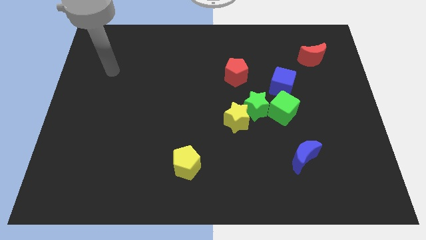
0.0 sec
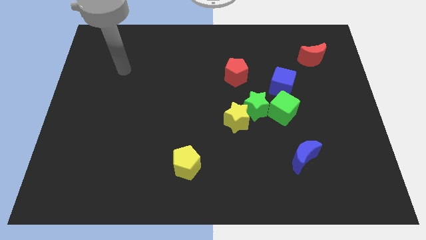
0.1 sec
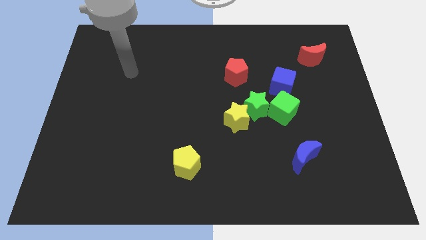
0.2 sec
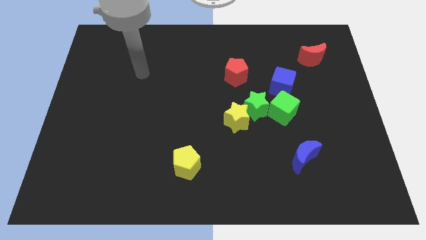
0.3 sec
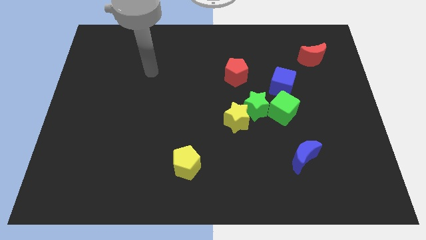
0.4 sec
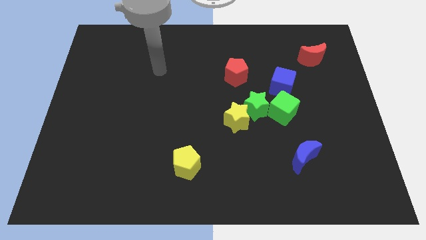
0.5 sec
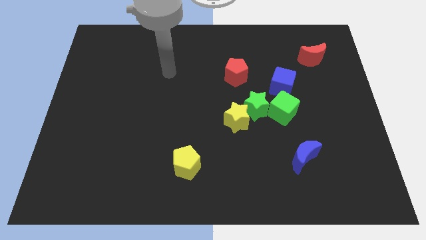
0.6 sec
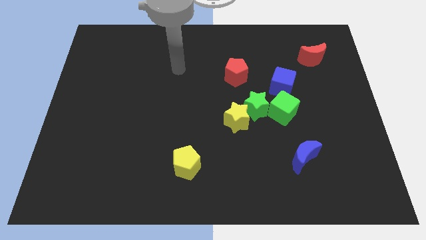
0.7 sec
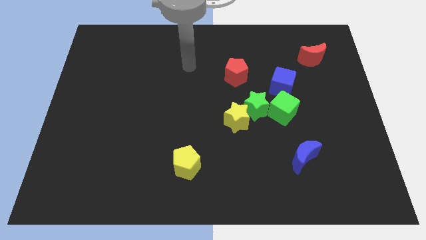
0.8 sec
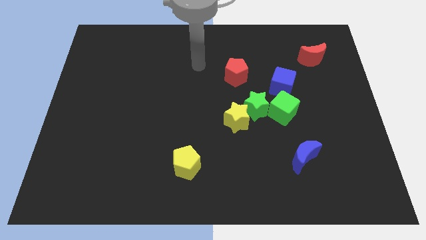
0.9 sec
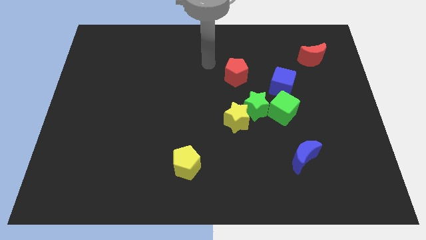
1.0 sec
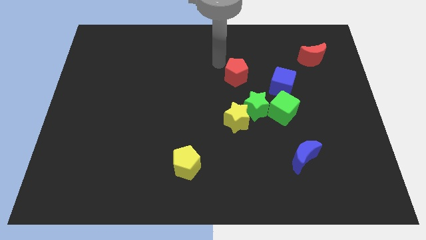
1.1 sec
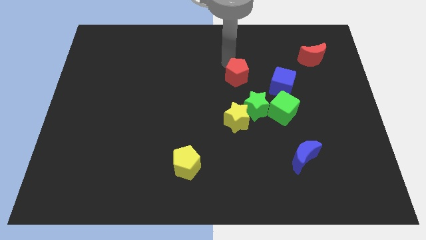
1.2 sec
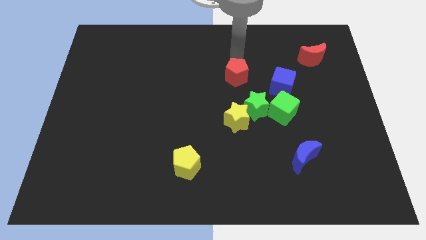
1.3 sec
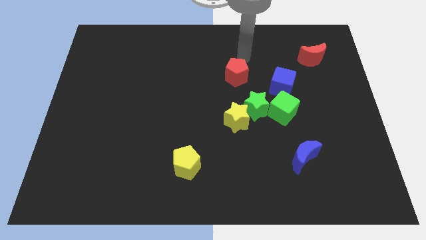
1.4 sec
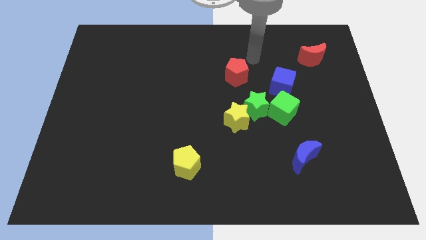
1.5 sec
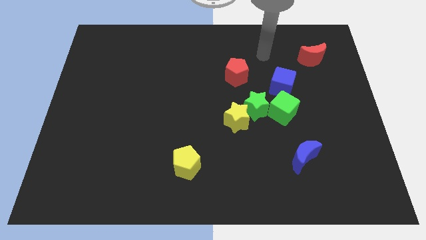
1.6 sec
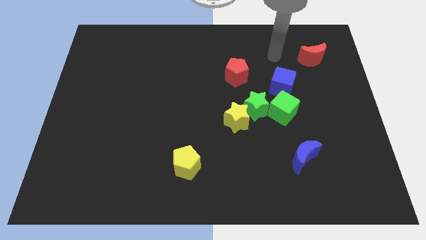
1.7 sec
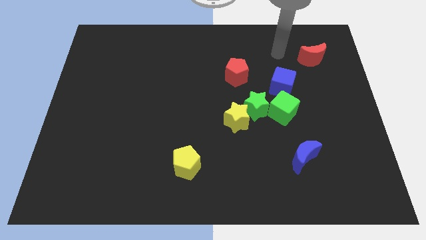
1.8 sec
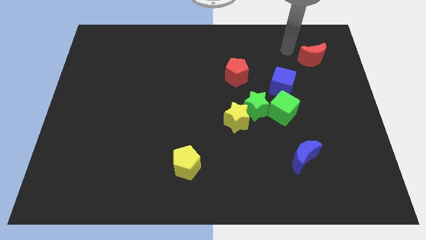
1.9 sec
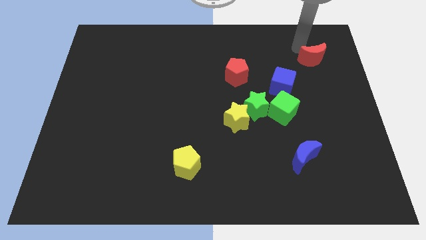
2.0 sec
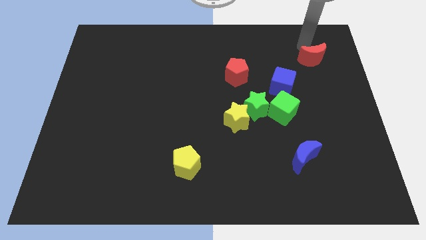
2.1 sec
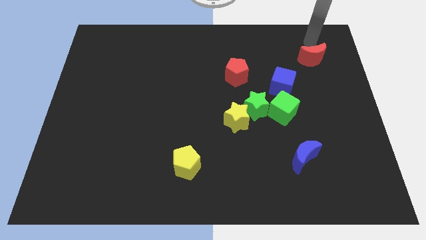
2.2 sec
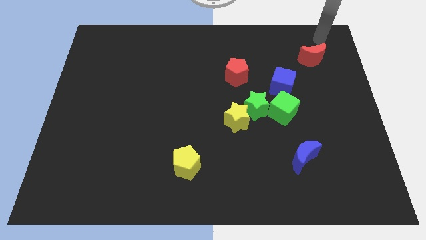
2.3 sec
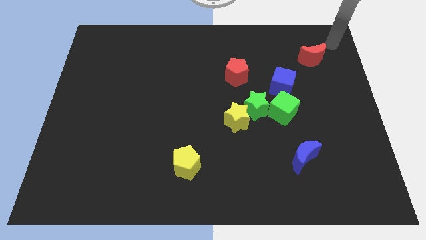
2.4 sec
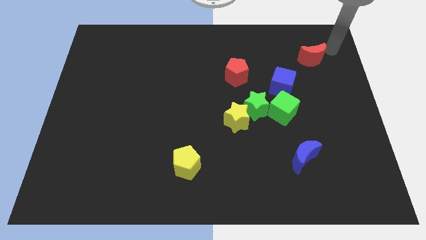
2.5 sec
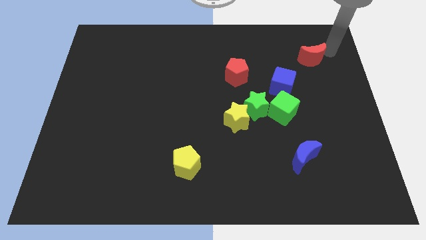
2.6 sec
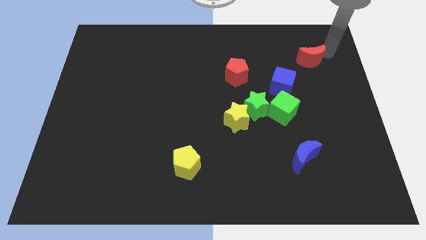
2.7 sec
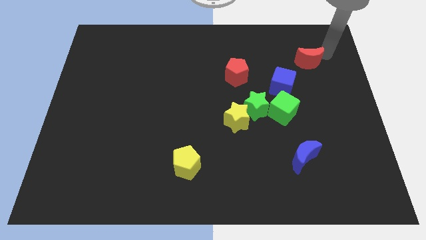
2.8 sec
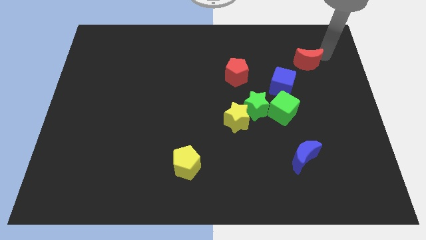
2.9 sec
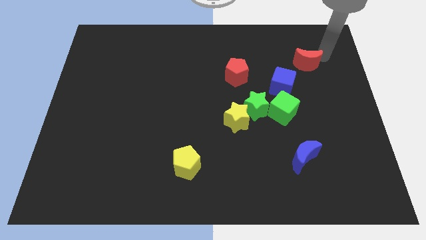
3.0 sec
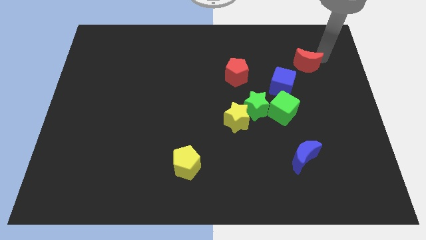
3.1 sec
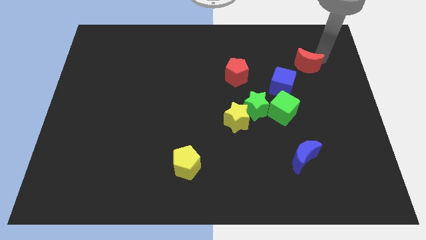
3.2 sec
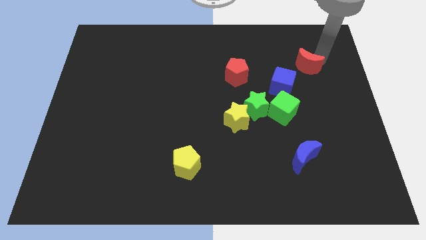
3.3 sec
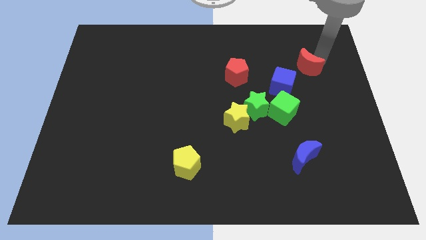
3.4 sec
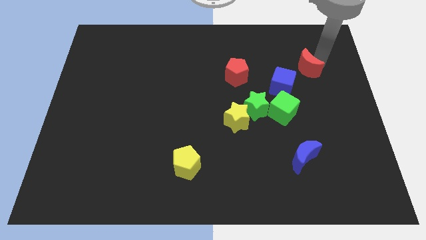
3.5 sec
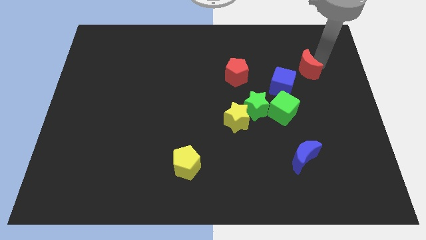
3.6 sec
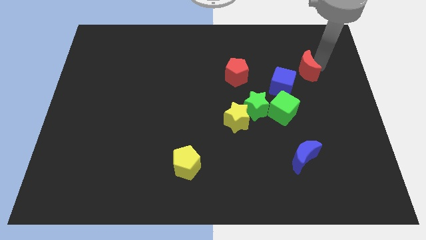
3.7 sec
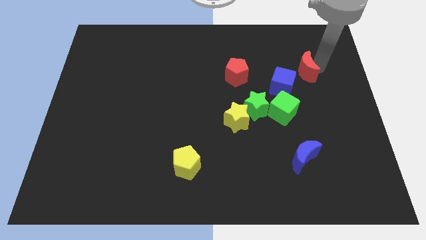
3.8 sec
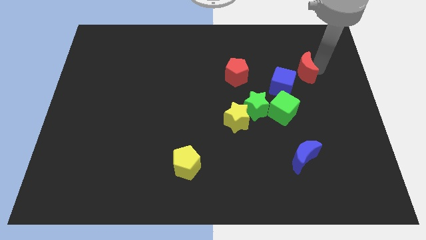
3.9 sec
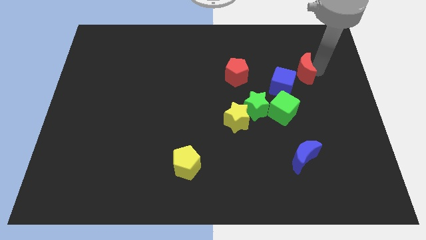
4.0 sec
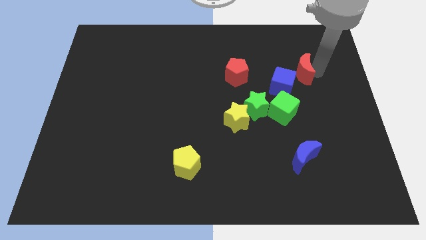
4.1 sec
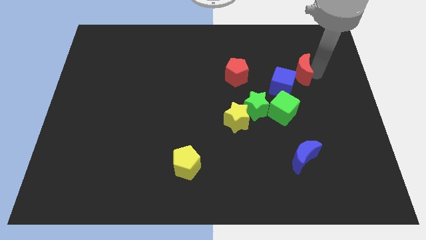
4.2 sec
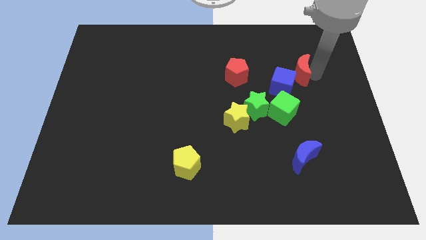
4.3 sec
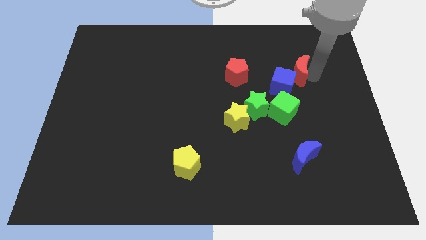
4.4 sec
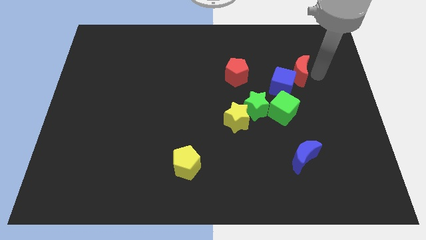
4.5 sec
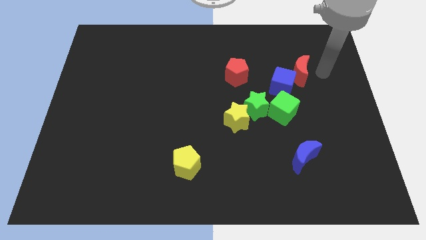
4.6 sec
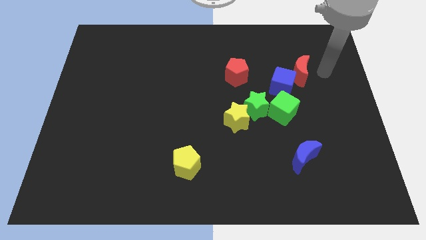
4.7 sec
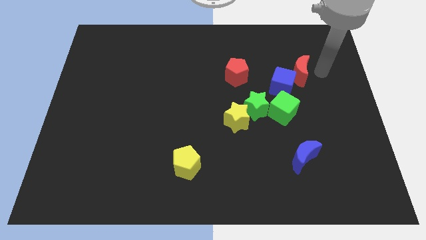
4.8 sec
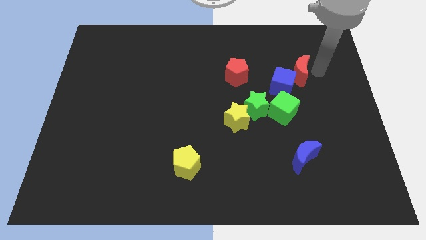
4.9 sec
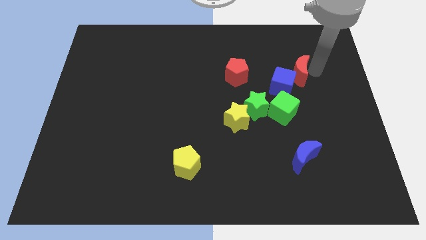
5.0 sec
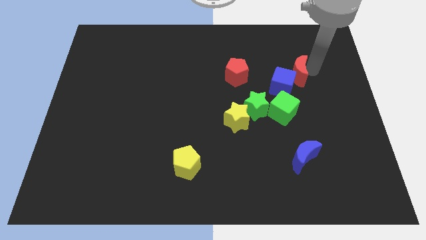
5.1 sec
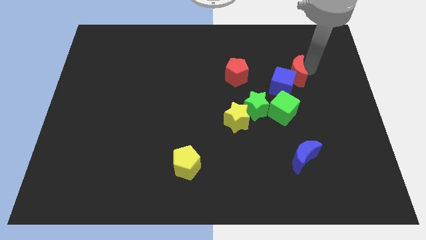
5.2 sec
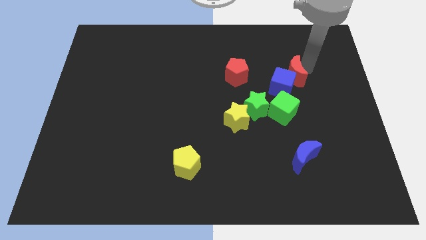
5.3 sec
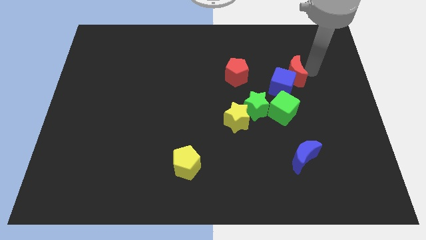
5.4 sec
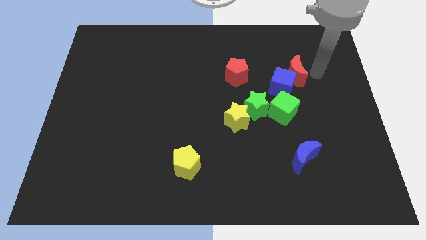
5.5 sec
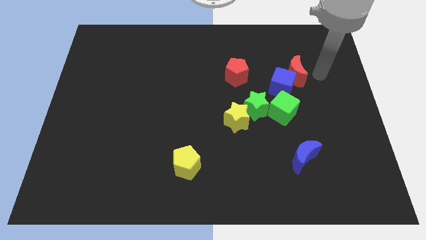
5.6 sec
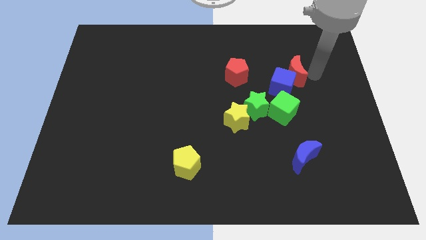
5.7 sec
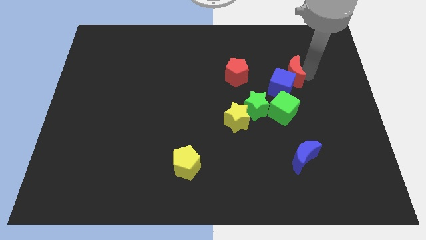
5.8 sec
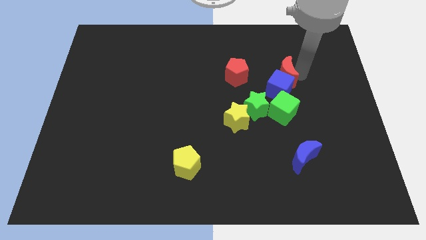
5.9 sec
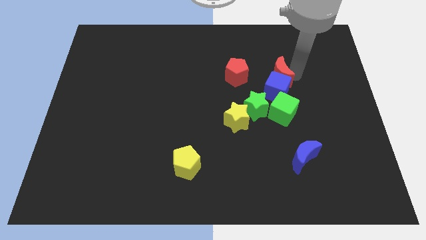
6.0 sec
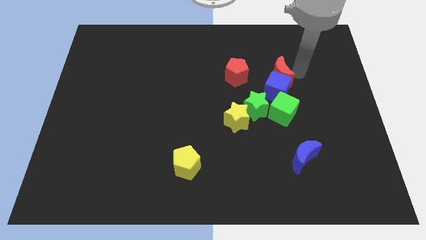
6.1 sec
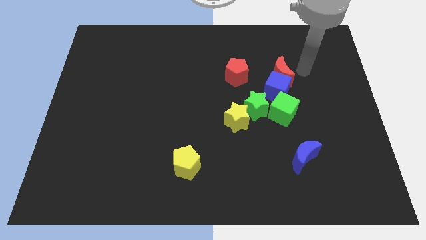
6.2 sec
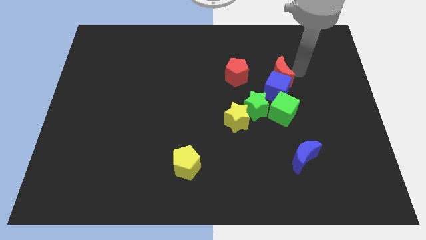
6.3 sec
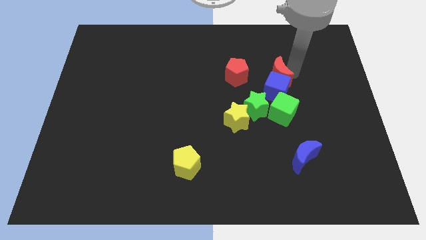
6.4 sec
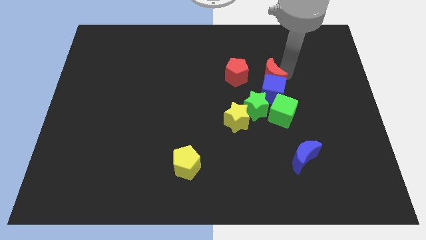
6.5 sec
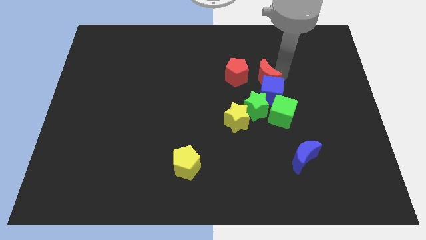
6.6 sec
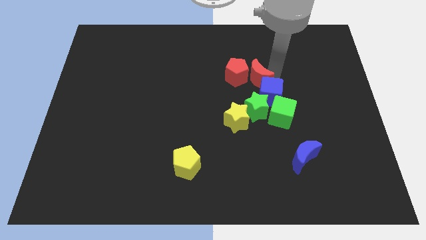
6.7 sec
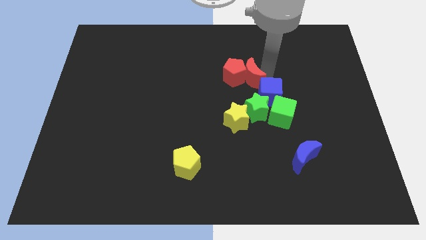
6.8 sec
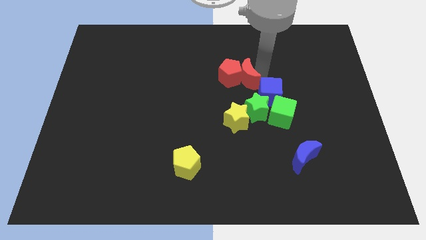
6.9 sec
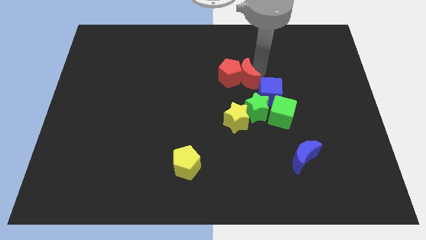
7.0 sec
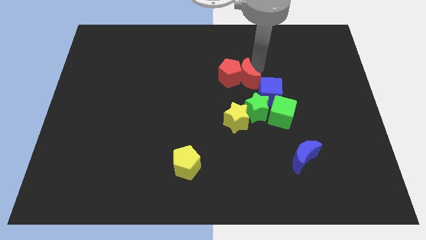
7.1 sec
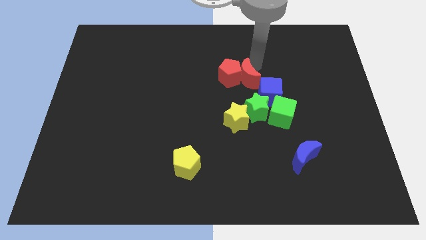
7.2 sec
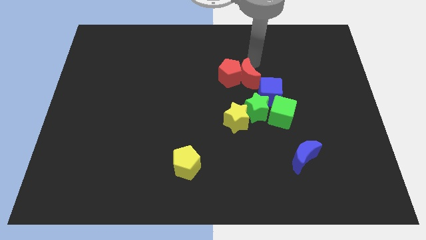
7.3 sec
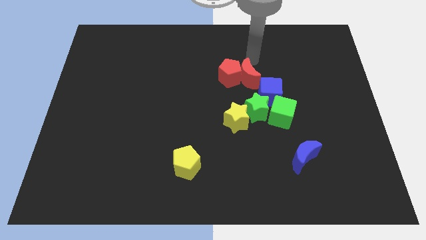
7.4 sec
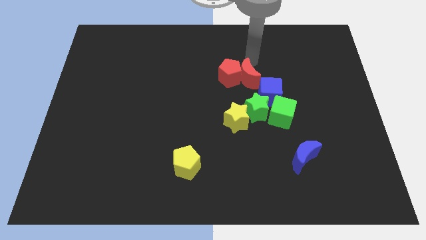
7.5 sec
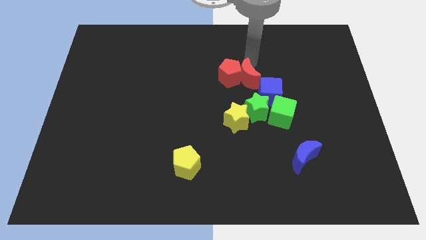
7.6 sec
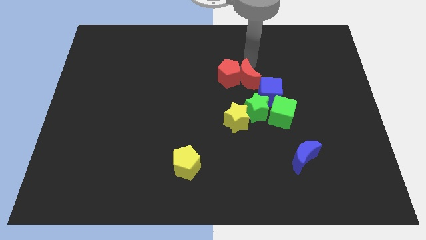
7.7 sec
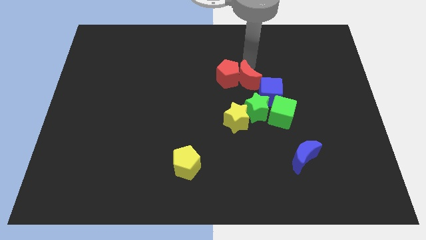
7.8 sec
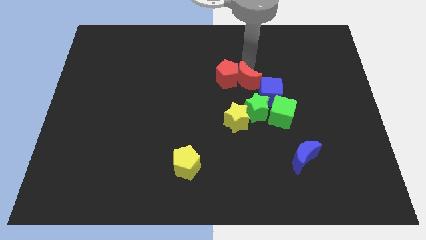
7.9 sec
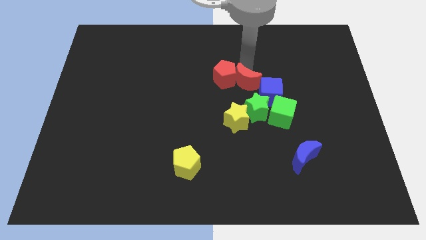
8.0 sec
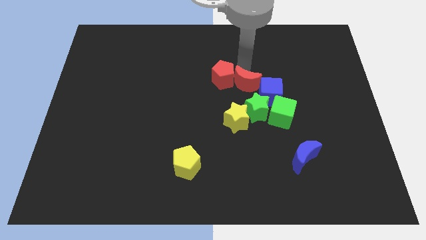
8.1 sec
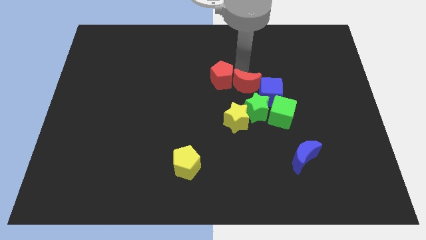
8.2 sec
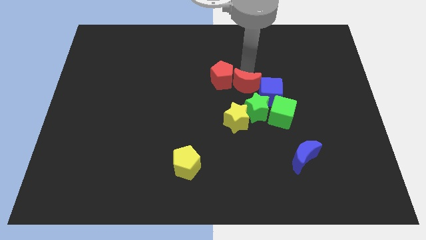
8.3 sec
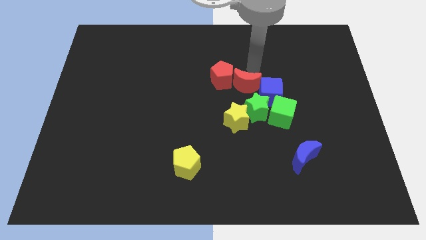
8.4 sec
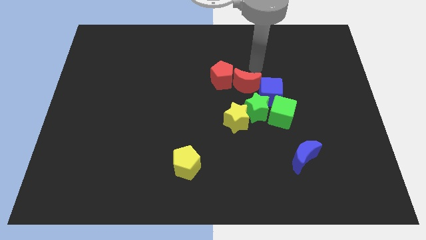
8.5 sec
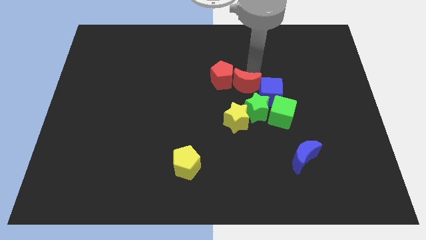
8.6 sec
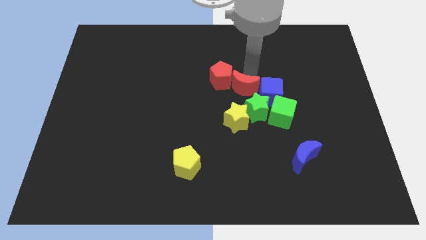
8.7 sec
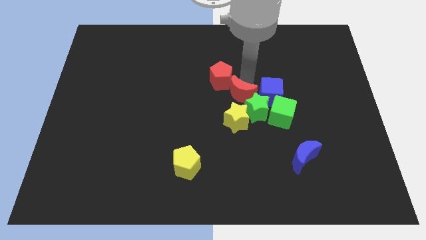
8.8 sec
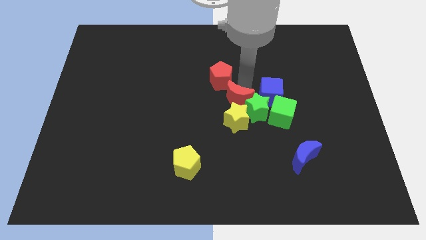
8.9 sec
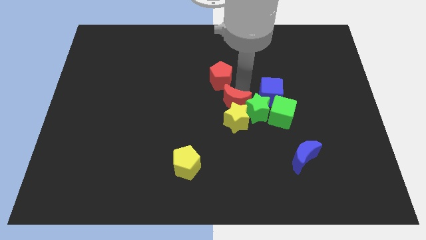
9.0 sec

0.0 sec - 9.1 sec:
push the red moon close to the yellow star
